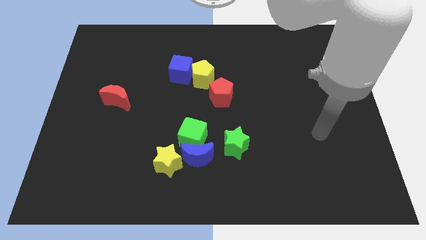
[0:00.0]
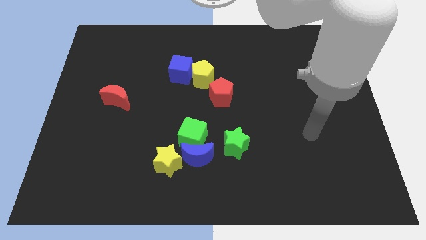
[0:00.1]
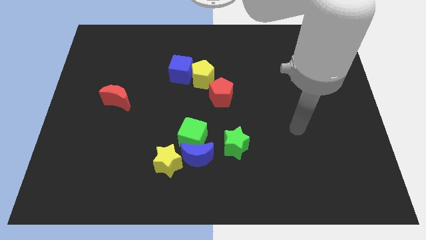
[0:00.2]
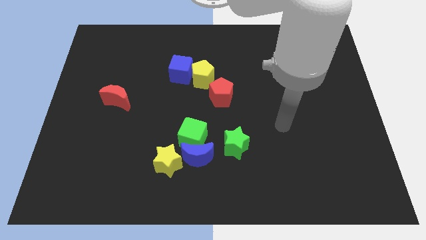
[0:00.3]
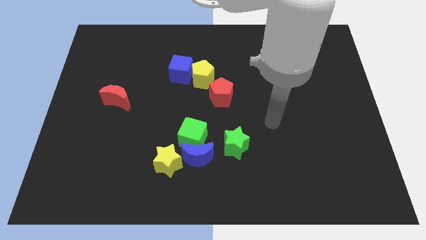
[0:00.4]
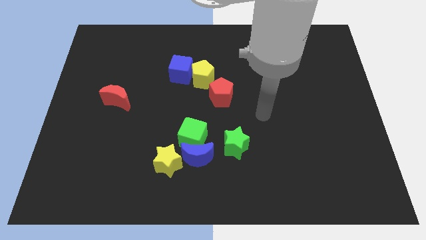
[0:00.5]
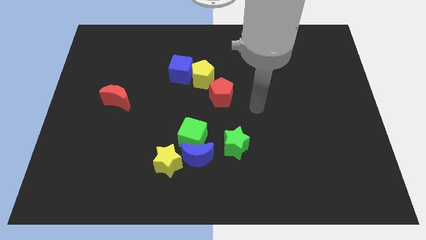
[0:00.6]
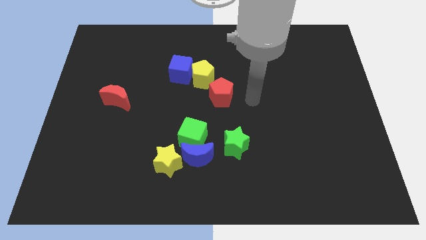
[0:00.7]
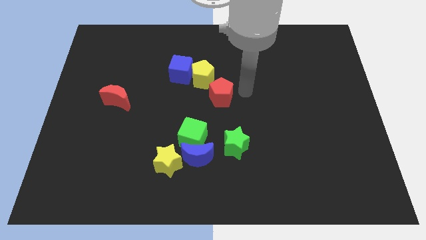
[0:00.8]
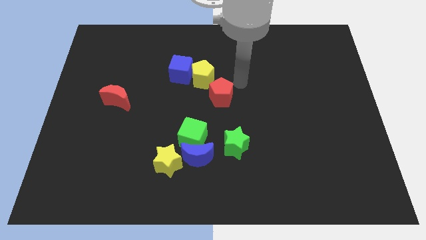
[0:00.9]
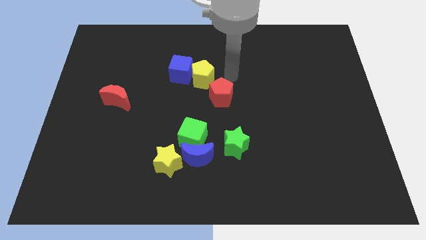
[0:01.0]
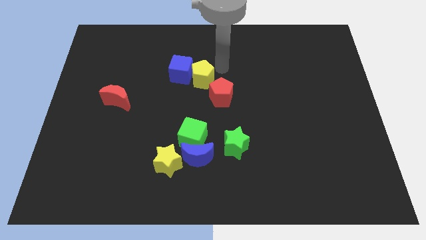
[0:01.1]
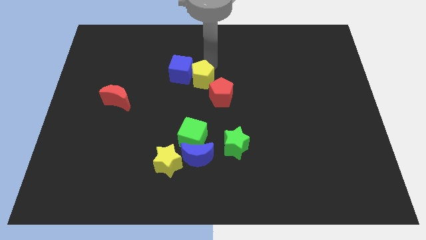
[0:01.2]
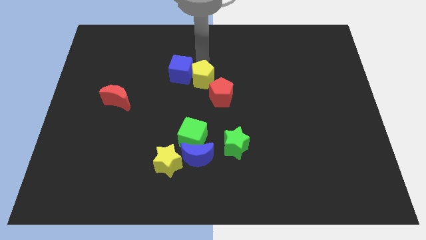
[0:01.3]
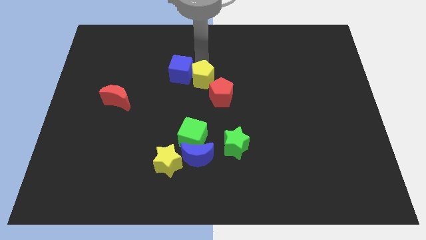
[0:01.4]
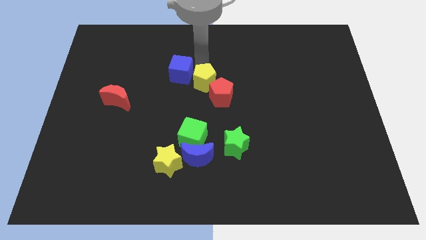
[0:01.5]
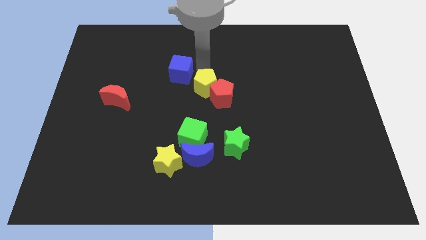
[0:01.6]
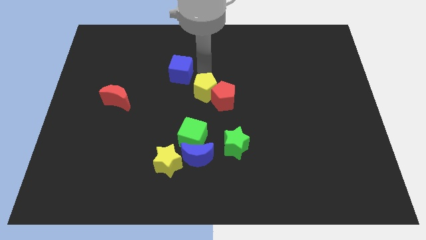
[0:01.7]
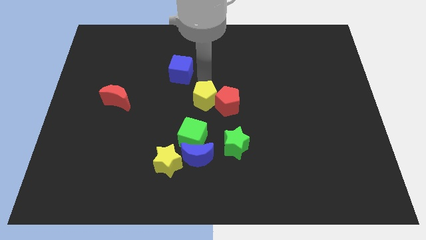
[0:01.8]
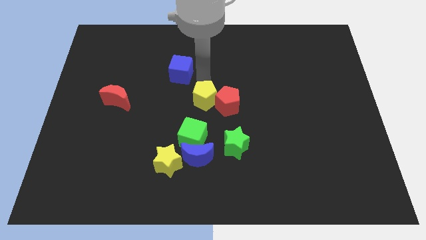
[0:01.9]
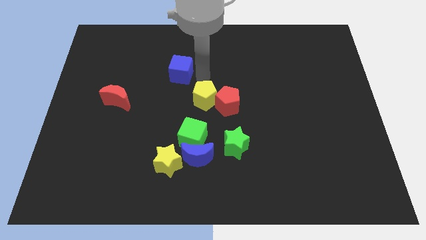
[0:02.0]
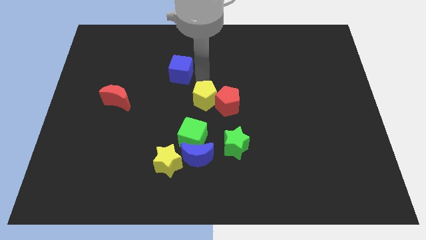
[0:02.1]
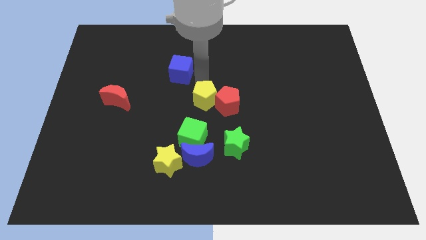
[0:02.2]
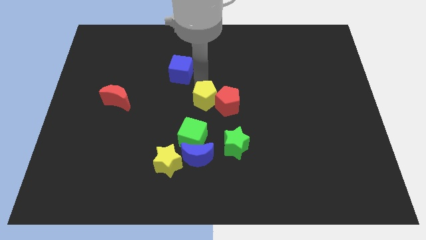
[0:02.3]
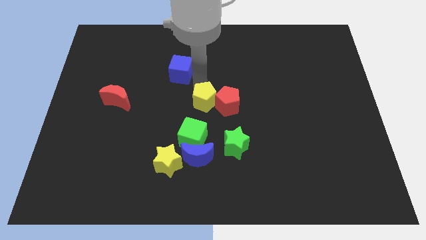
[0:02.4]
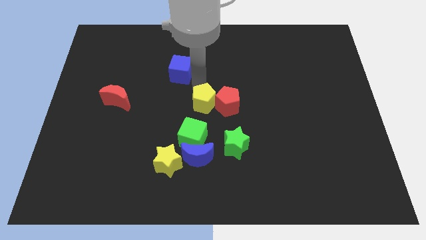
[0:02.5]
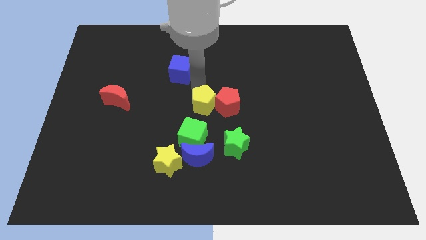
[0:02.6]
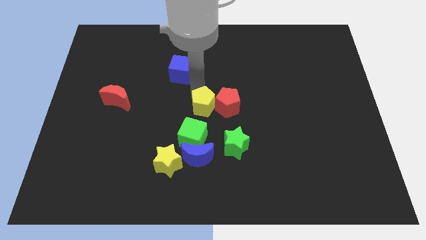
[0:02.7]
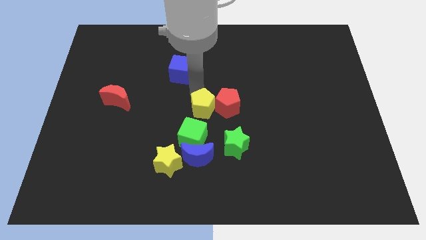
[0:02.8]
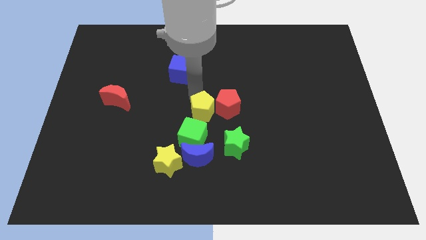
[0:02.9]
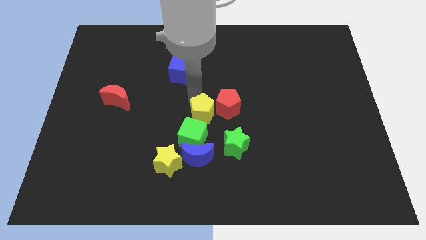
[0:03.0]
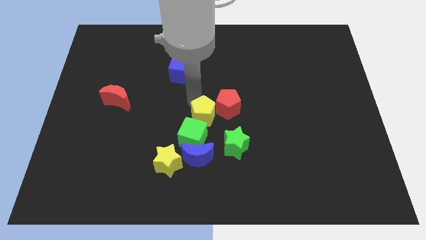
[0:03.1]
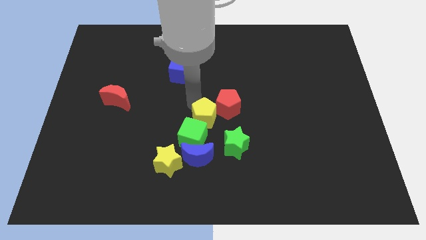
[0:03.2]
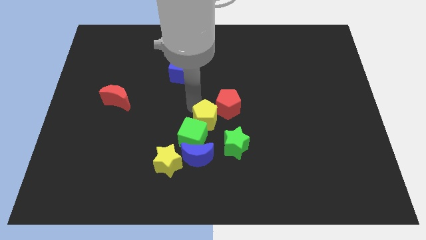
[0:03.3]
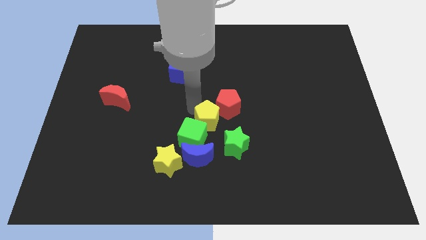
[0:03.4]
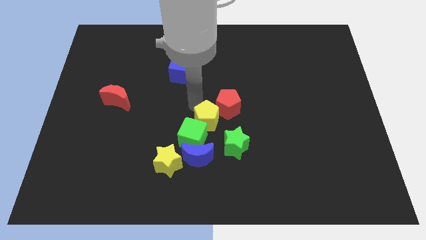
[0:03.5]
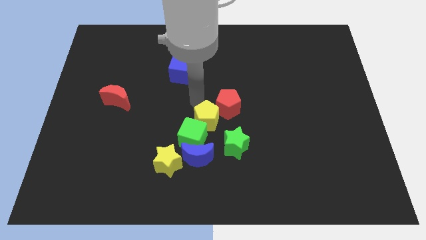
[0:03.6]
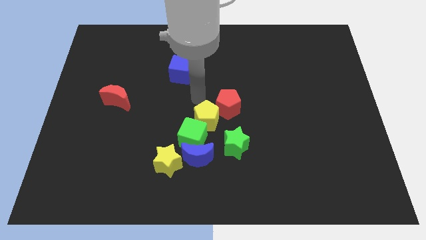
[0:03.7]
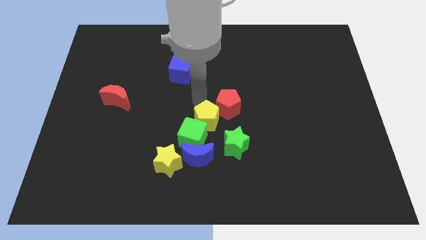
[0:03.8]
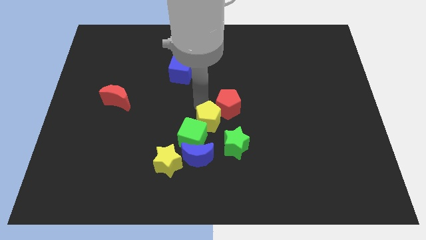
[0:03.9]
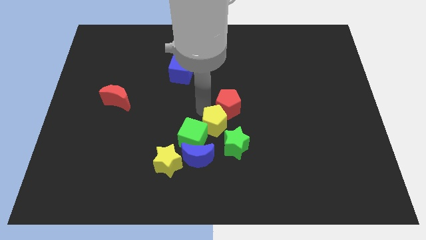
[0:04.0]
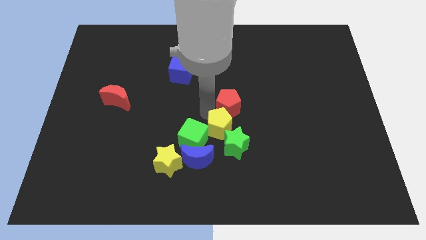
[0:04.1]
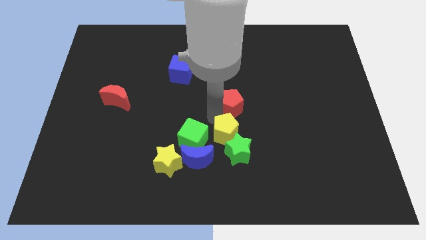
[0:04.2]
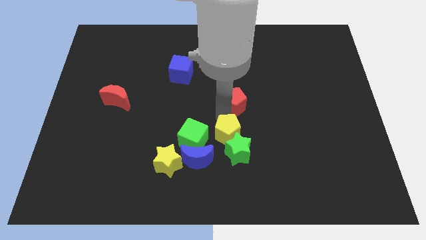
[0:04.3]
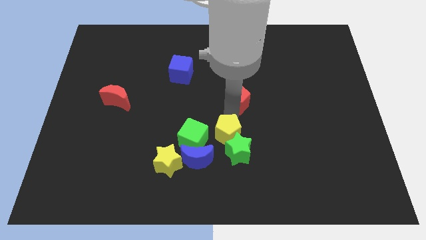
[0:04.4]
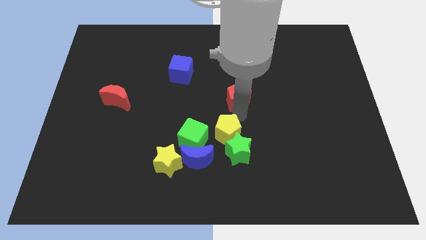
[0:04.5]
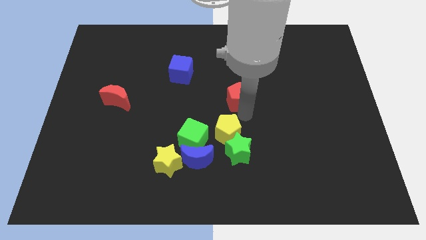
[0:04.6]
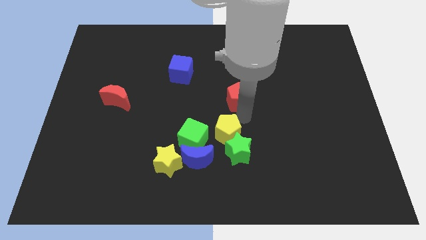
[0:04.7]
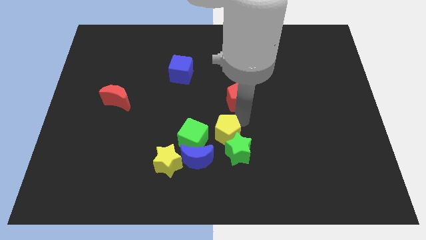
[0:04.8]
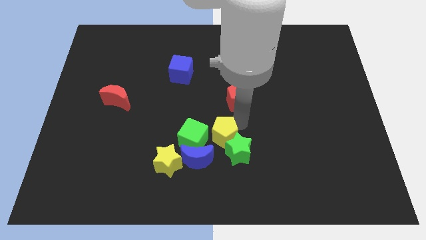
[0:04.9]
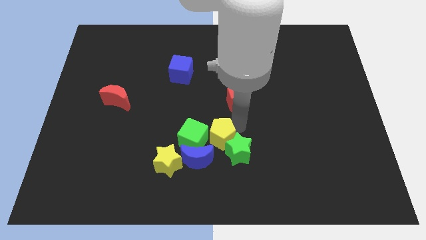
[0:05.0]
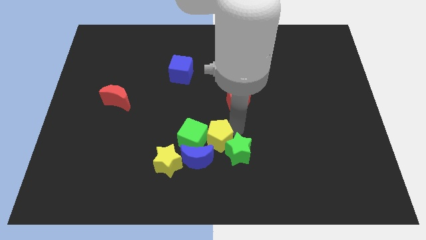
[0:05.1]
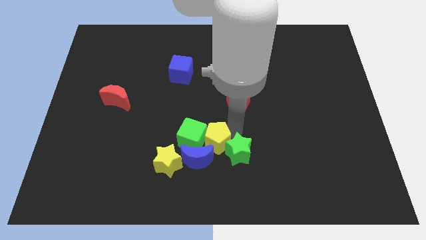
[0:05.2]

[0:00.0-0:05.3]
put the yellow pentagon towards the blue moon

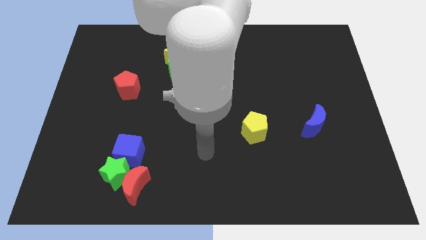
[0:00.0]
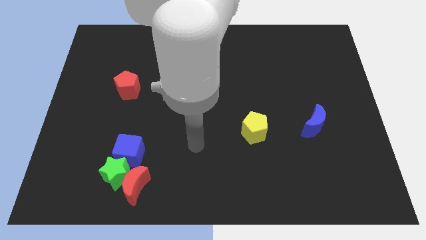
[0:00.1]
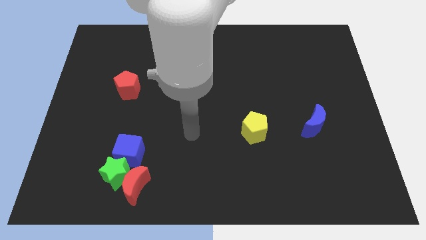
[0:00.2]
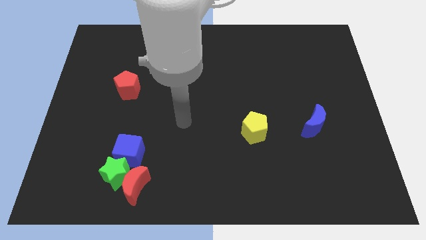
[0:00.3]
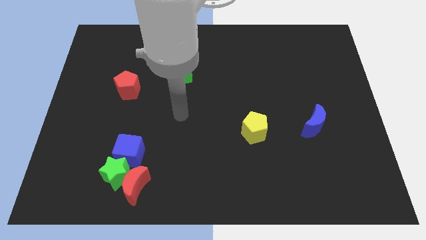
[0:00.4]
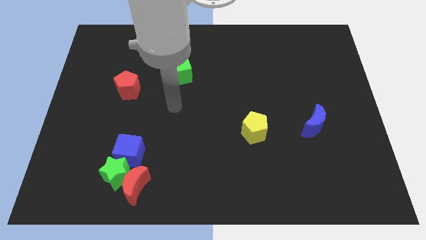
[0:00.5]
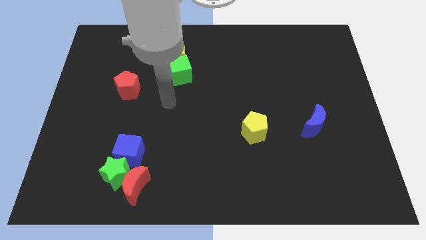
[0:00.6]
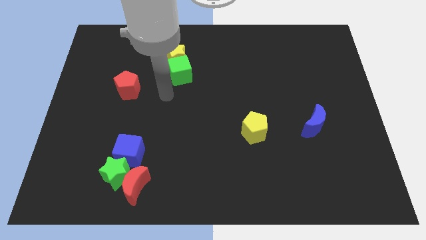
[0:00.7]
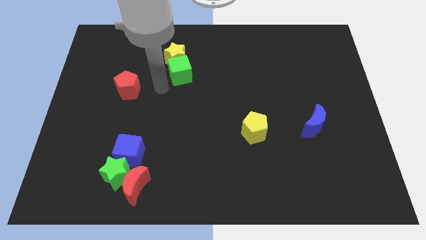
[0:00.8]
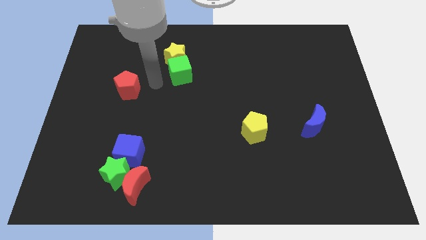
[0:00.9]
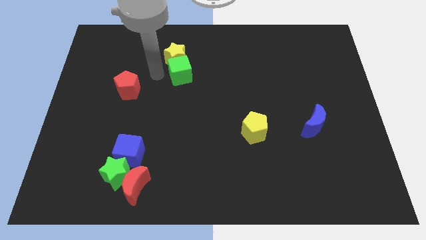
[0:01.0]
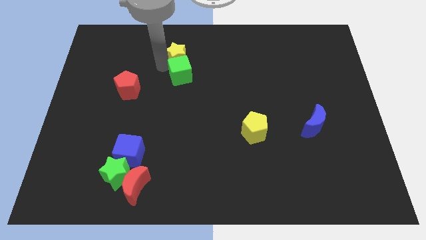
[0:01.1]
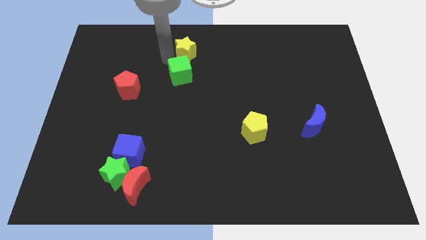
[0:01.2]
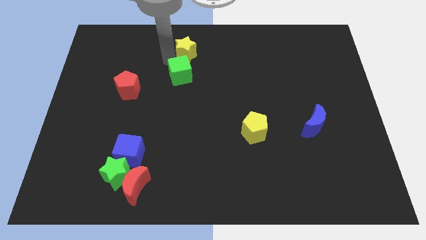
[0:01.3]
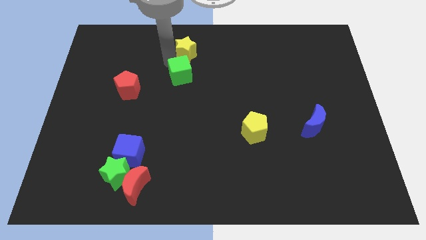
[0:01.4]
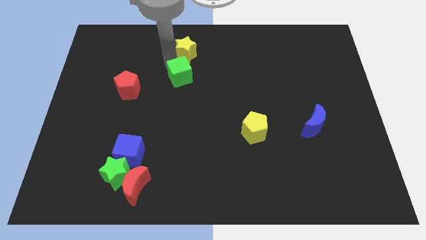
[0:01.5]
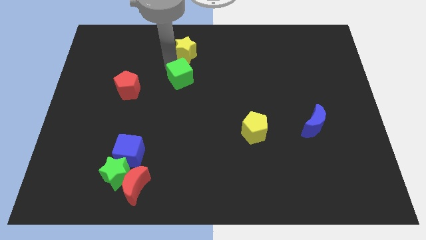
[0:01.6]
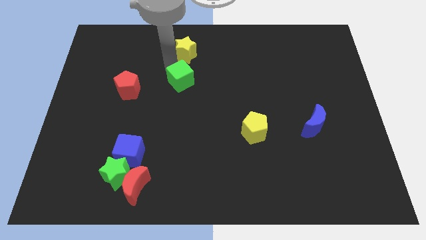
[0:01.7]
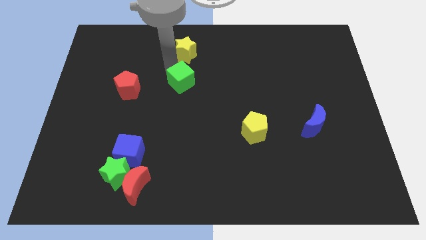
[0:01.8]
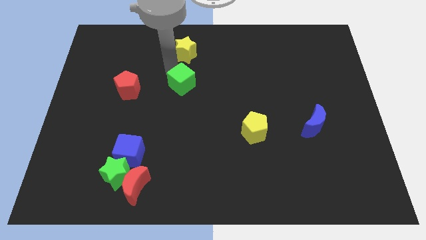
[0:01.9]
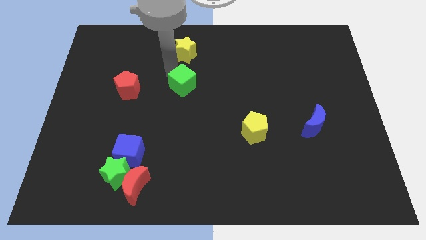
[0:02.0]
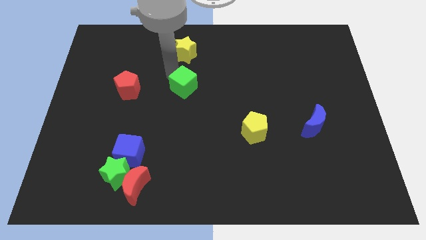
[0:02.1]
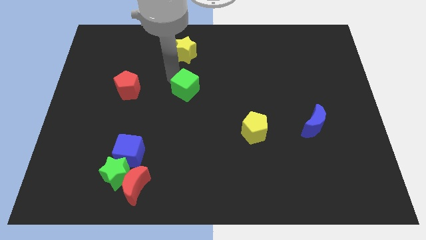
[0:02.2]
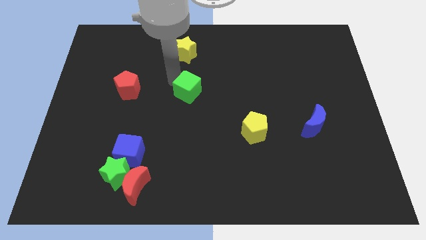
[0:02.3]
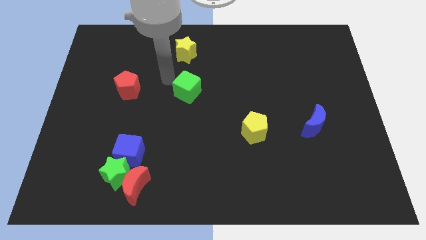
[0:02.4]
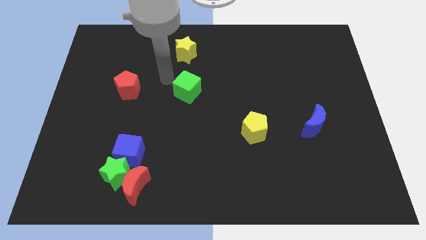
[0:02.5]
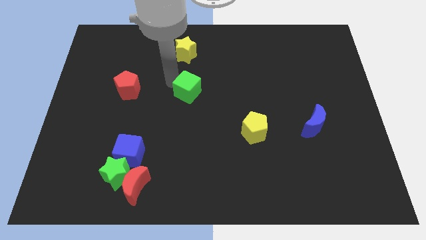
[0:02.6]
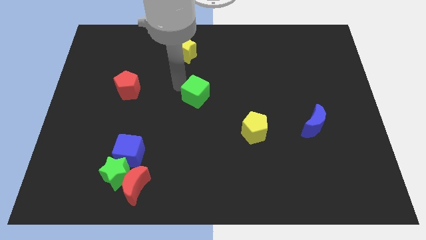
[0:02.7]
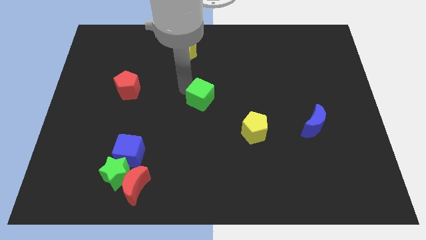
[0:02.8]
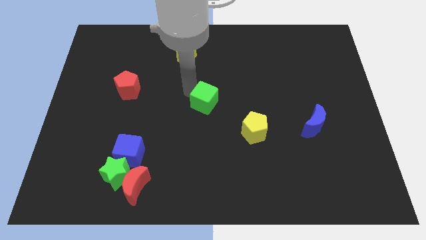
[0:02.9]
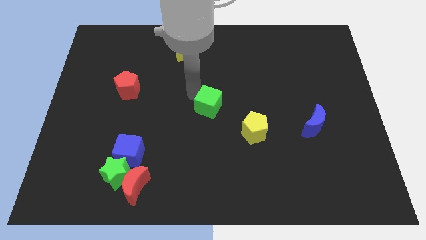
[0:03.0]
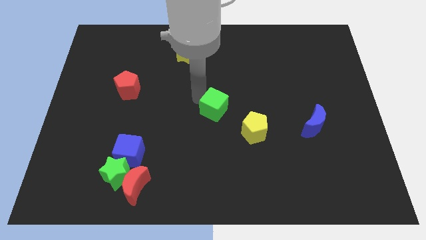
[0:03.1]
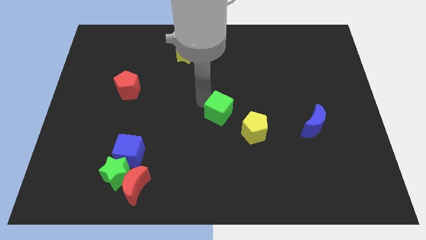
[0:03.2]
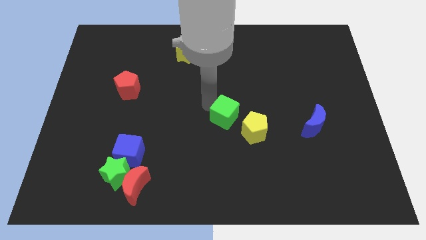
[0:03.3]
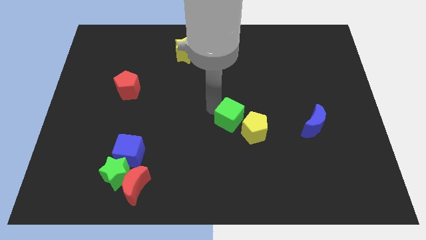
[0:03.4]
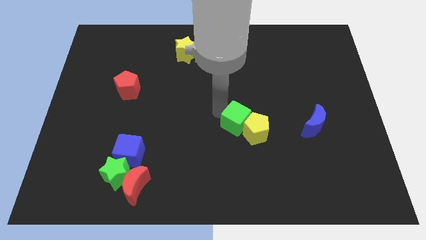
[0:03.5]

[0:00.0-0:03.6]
move the green cube next to the yellow pentagon
